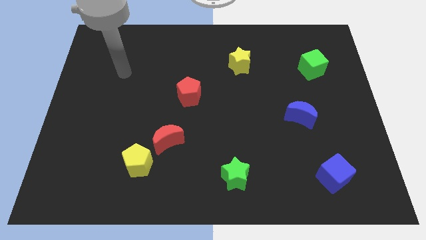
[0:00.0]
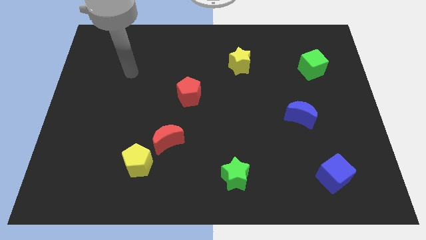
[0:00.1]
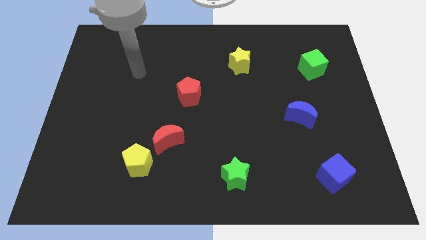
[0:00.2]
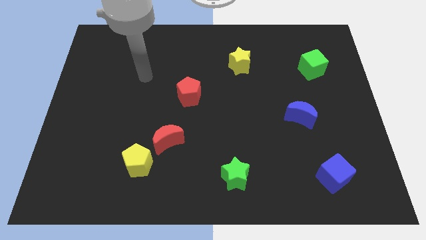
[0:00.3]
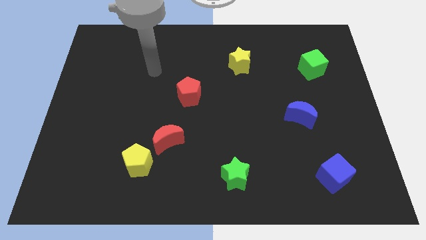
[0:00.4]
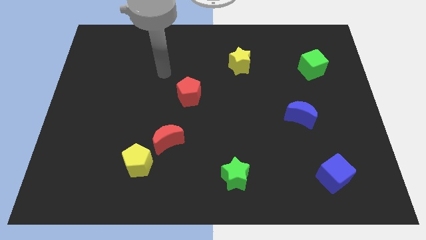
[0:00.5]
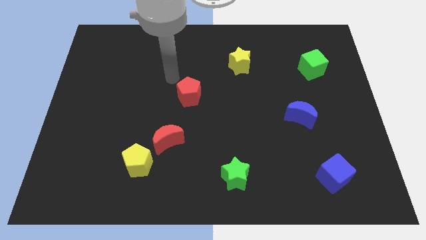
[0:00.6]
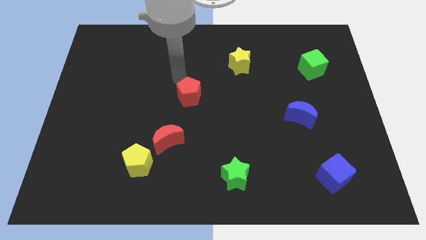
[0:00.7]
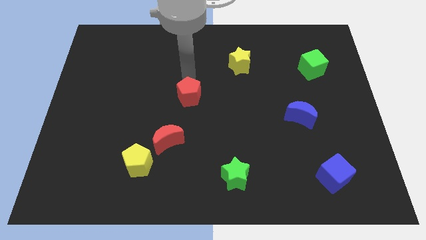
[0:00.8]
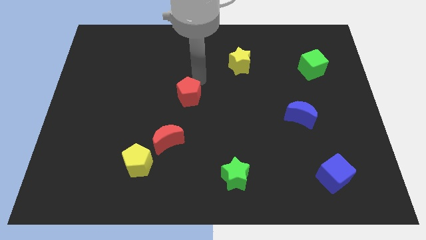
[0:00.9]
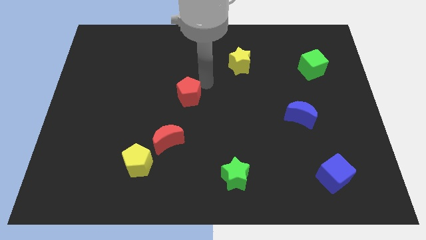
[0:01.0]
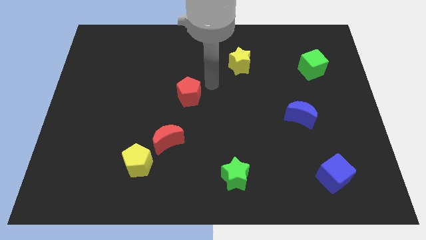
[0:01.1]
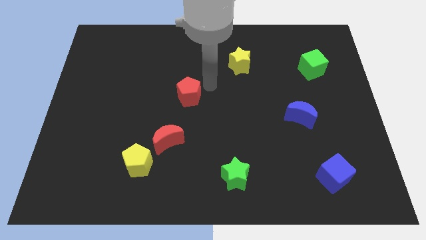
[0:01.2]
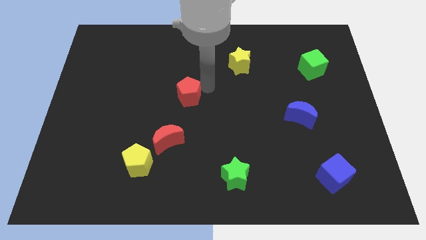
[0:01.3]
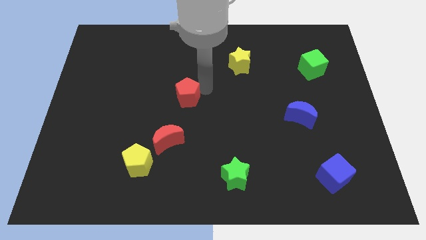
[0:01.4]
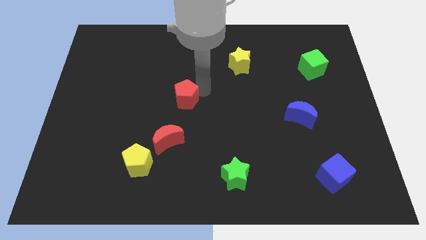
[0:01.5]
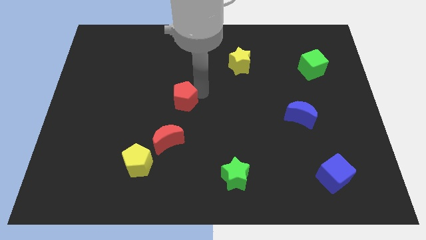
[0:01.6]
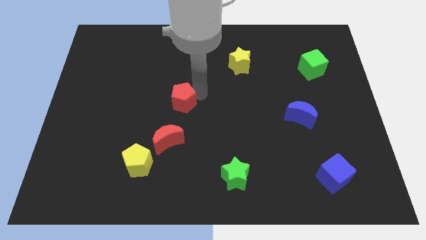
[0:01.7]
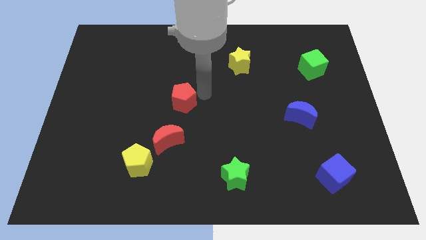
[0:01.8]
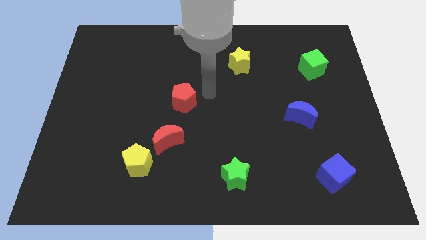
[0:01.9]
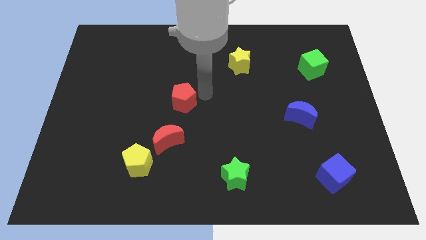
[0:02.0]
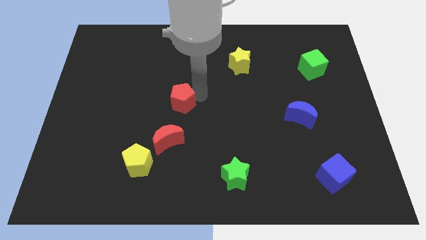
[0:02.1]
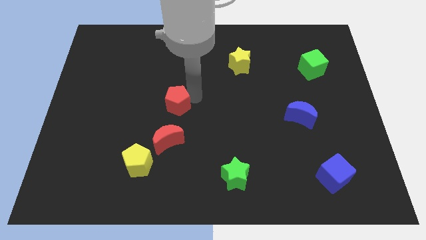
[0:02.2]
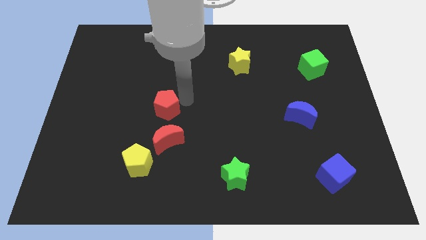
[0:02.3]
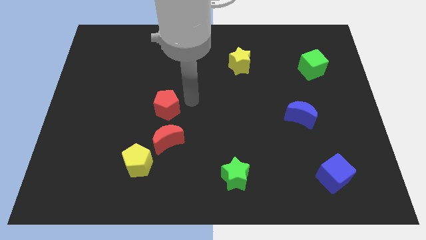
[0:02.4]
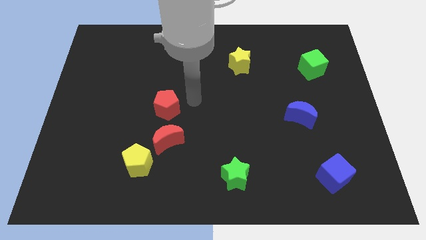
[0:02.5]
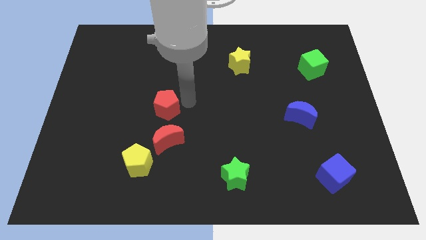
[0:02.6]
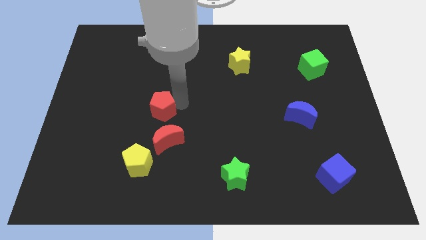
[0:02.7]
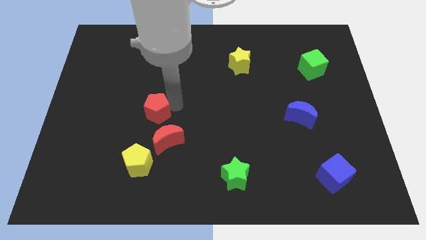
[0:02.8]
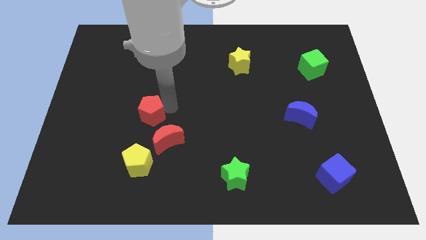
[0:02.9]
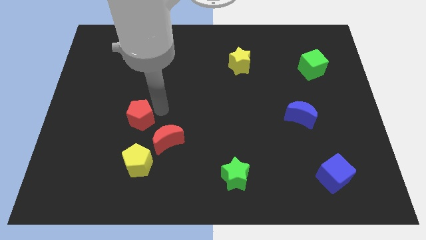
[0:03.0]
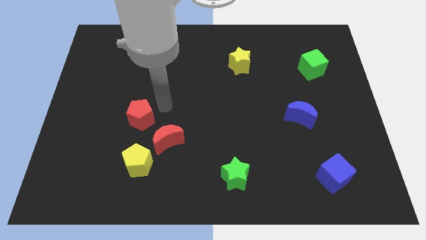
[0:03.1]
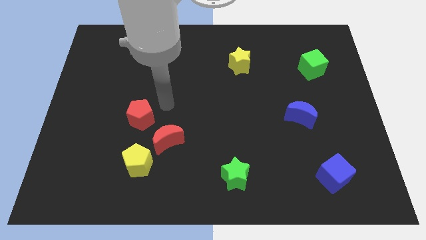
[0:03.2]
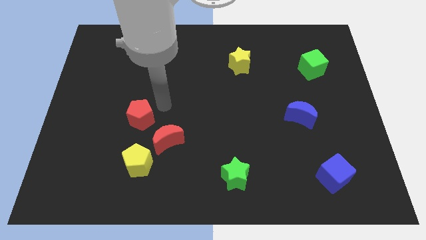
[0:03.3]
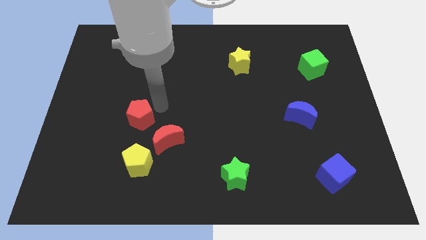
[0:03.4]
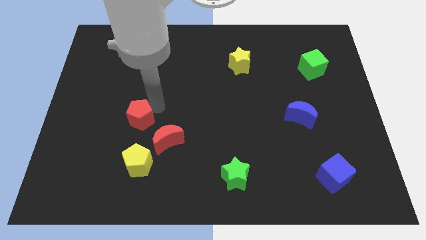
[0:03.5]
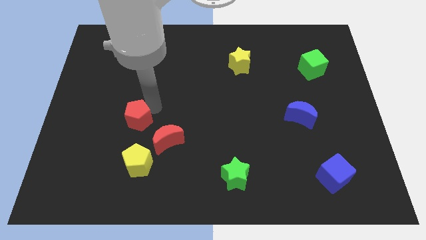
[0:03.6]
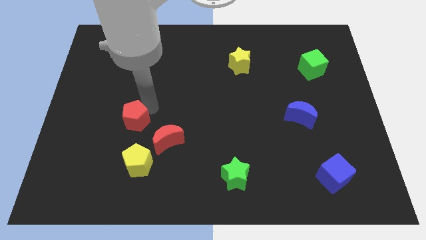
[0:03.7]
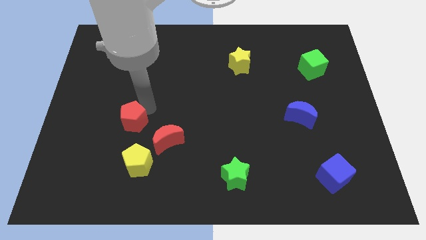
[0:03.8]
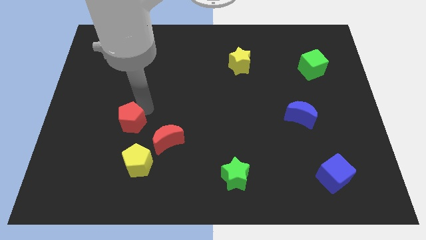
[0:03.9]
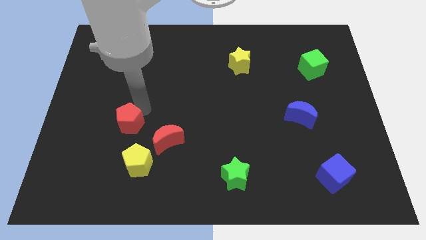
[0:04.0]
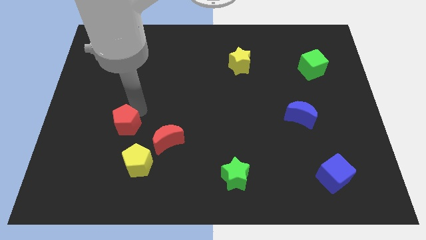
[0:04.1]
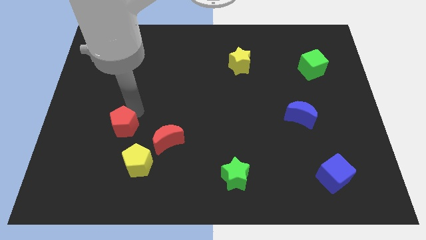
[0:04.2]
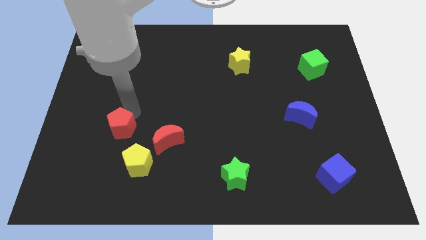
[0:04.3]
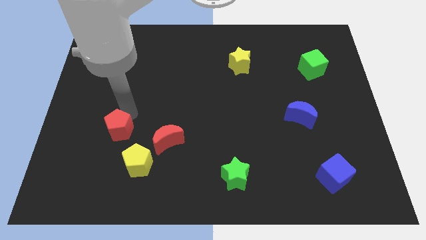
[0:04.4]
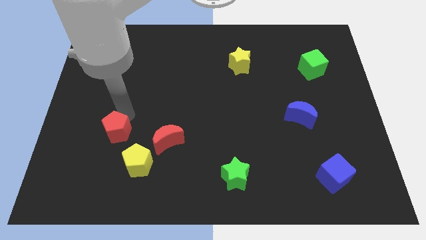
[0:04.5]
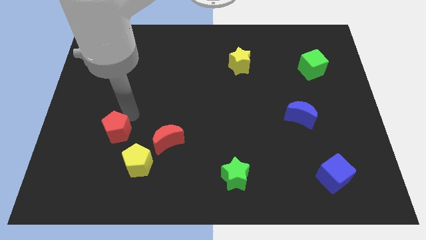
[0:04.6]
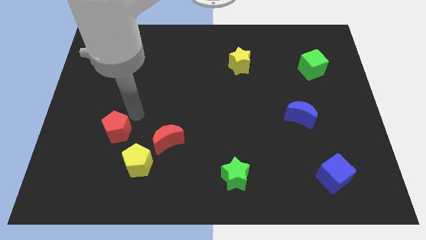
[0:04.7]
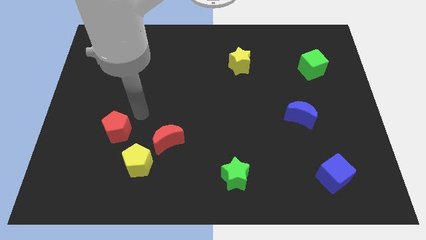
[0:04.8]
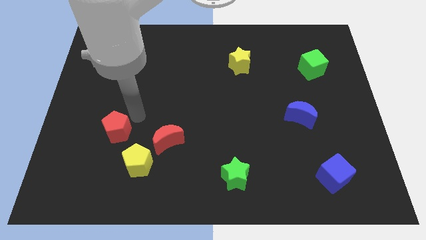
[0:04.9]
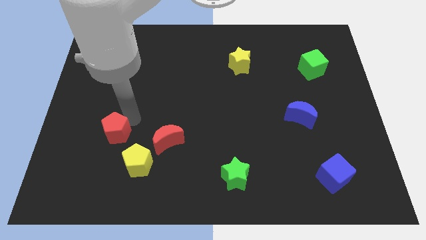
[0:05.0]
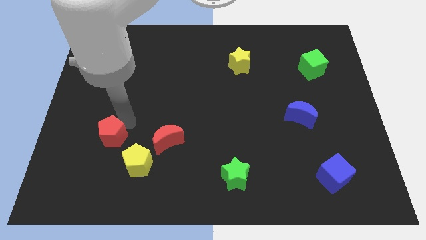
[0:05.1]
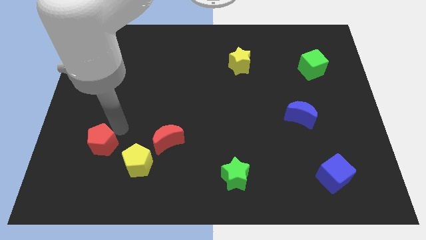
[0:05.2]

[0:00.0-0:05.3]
slide the red pentagon down and left

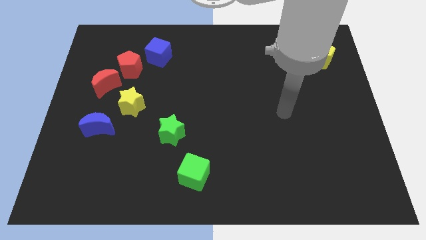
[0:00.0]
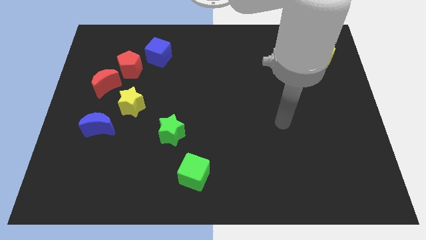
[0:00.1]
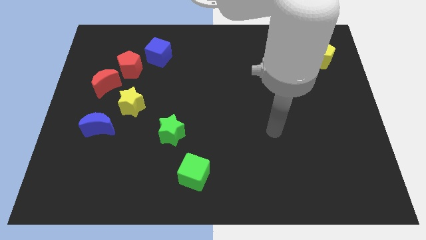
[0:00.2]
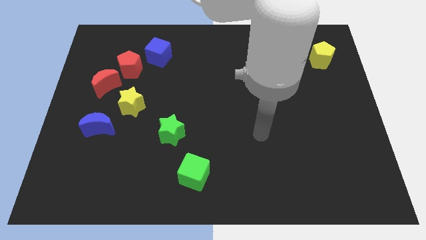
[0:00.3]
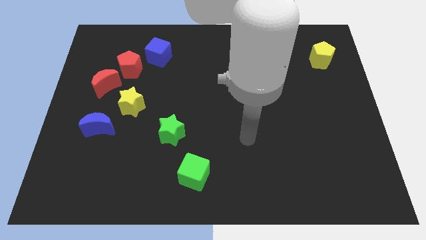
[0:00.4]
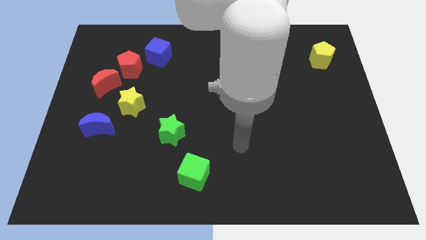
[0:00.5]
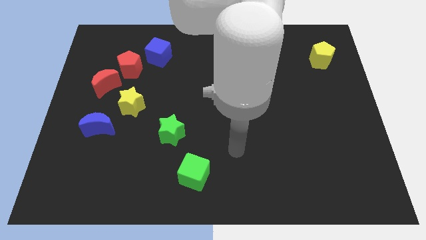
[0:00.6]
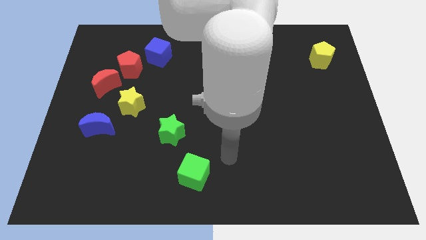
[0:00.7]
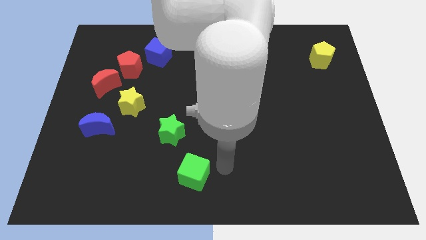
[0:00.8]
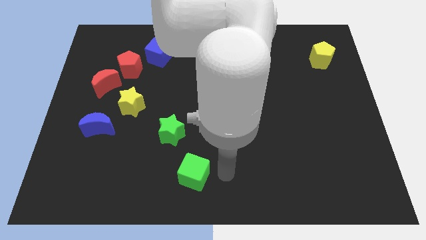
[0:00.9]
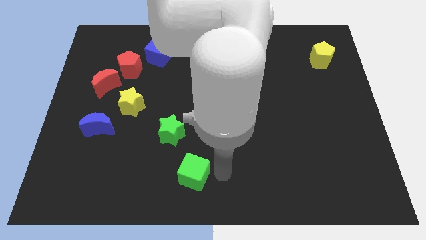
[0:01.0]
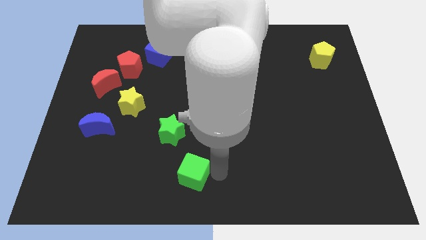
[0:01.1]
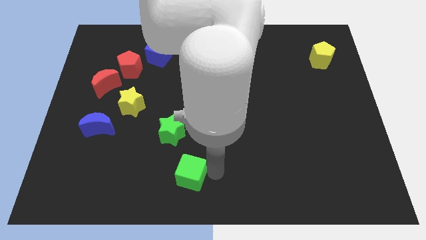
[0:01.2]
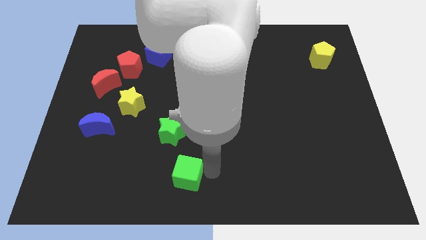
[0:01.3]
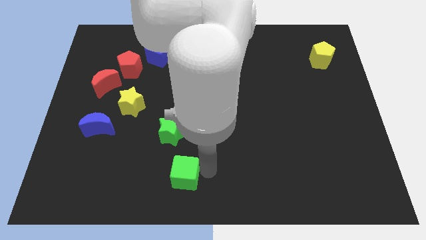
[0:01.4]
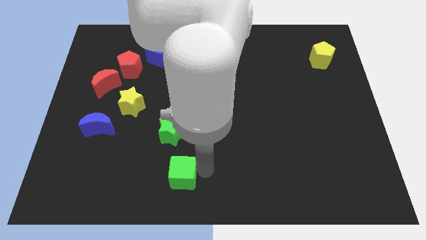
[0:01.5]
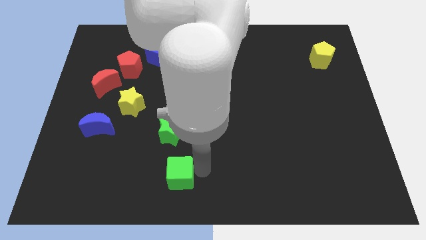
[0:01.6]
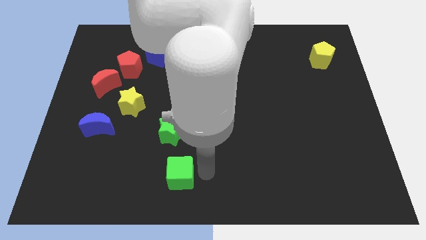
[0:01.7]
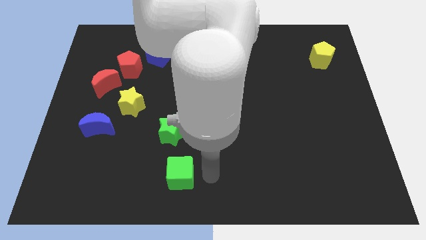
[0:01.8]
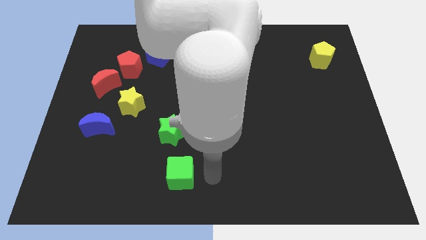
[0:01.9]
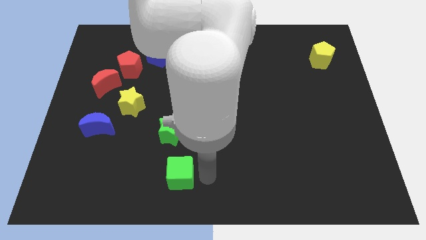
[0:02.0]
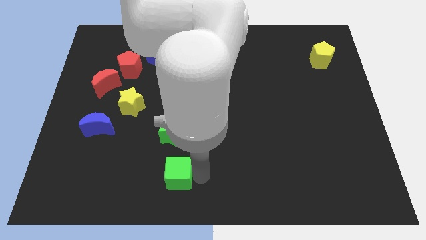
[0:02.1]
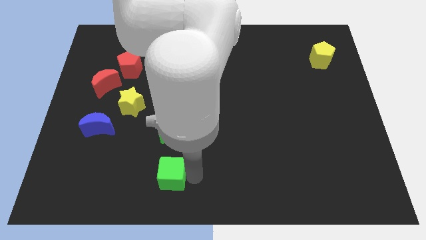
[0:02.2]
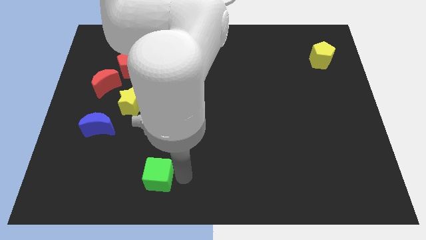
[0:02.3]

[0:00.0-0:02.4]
slide the green cube left a little

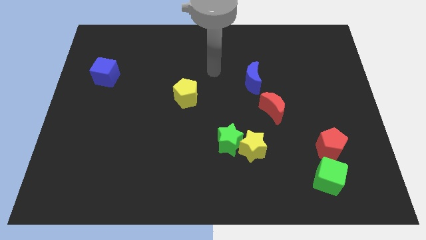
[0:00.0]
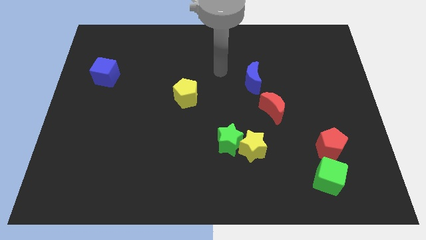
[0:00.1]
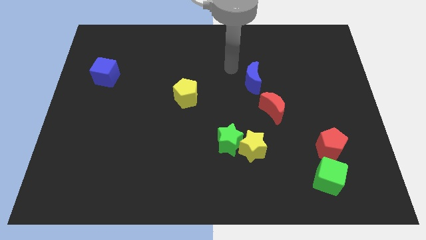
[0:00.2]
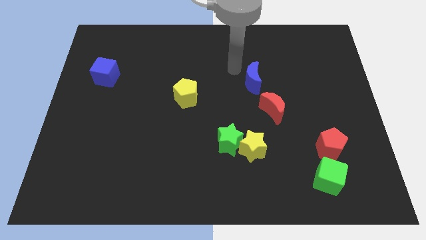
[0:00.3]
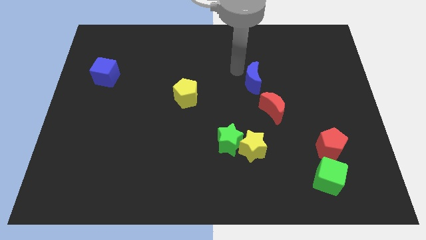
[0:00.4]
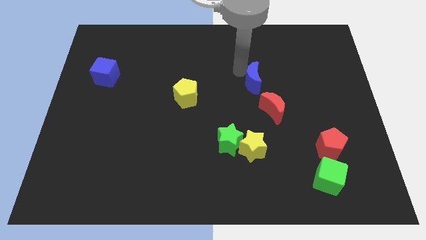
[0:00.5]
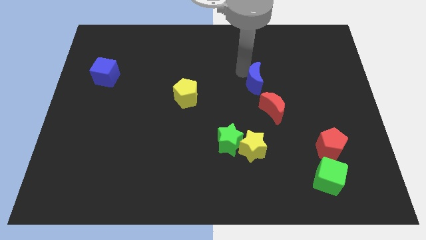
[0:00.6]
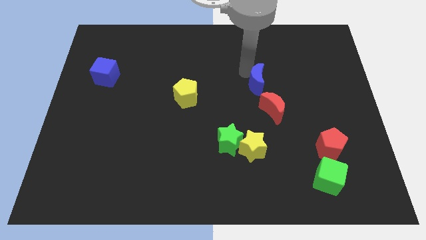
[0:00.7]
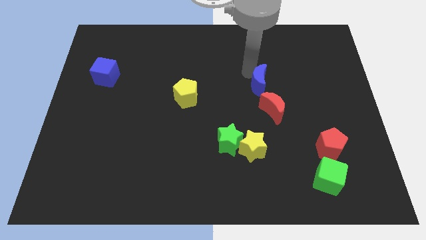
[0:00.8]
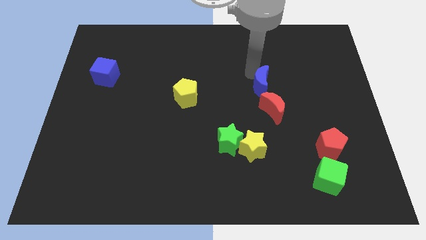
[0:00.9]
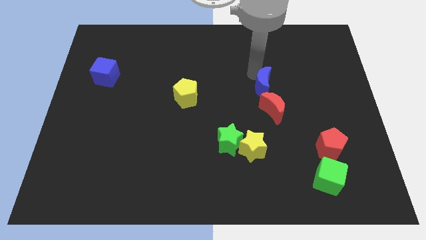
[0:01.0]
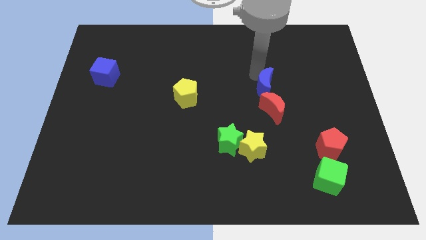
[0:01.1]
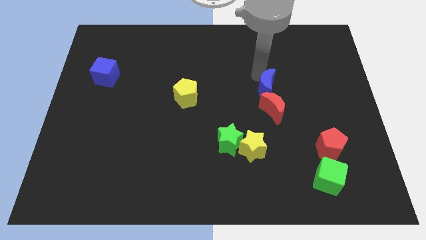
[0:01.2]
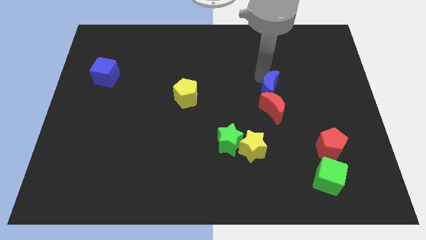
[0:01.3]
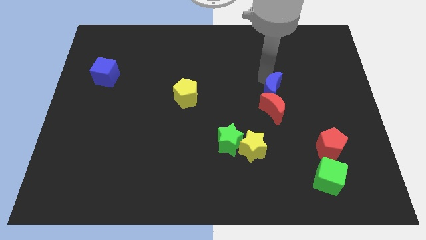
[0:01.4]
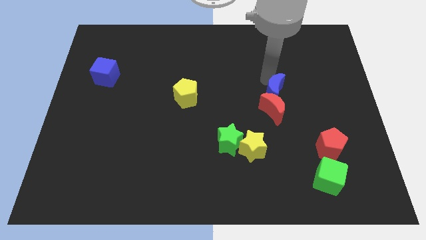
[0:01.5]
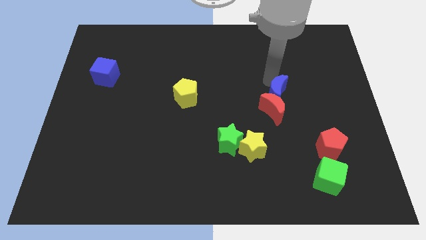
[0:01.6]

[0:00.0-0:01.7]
push the blue moon a little bit downwards and then right
